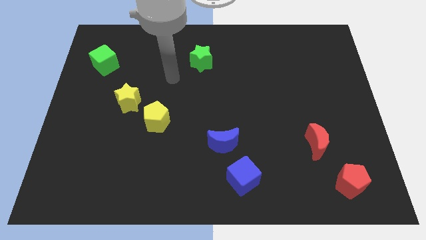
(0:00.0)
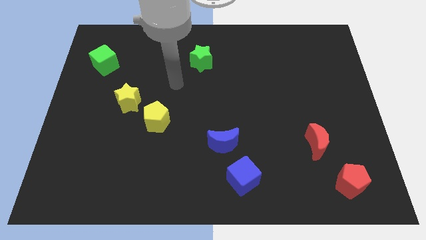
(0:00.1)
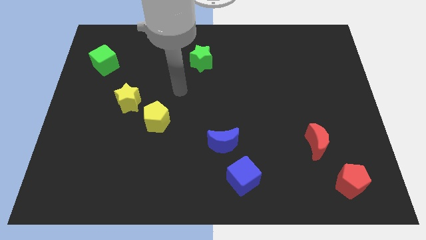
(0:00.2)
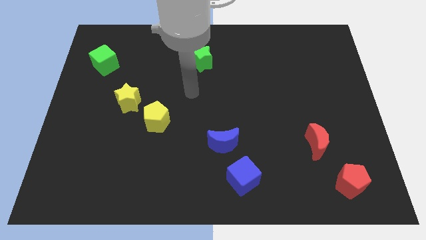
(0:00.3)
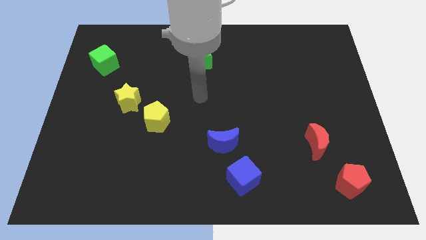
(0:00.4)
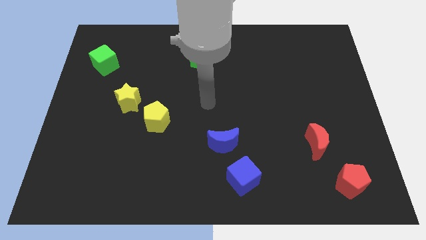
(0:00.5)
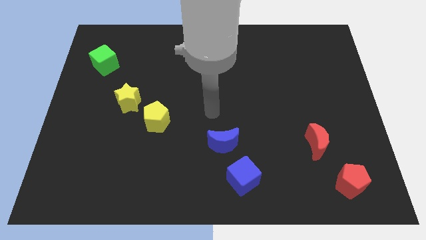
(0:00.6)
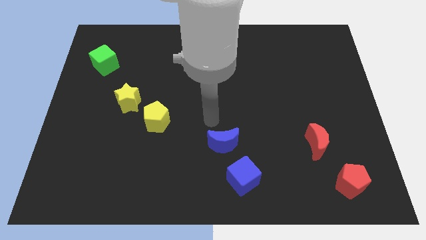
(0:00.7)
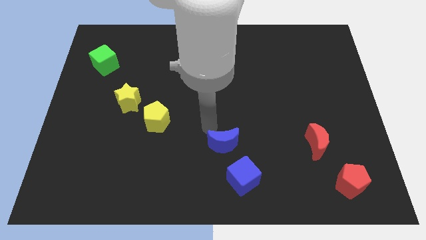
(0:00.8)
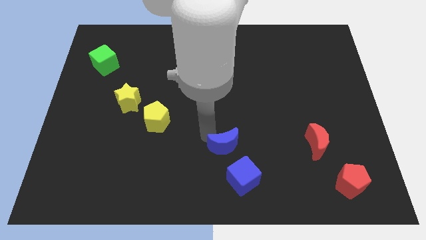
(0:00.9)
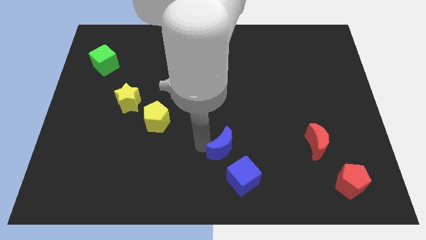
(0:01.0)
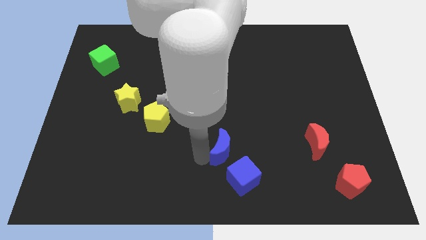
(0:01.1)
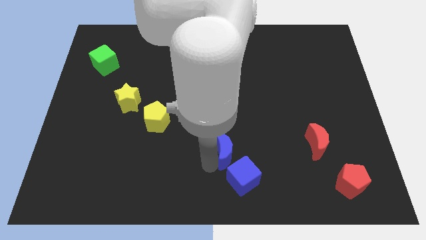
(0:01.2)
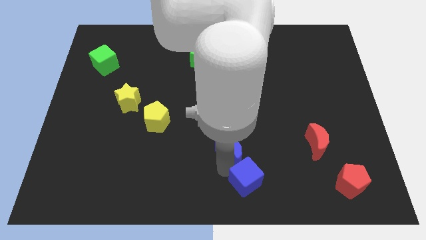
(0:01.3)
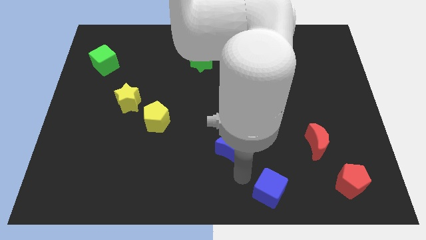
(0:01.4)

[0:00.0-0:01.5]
move the blue moon away from the blue cube

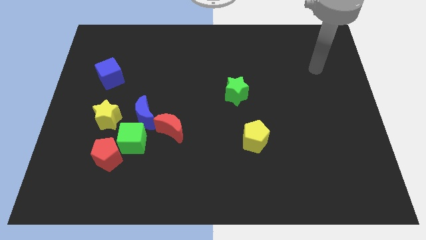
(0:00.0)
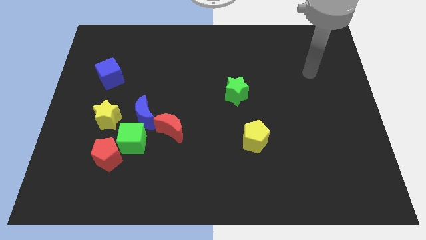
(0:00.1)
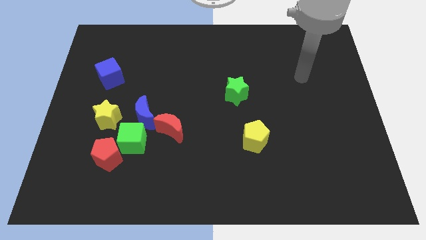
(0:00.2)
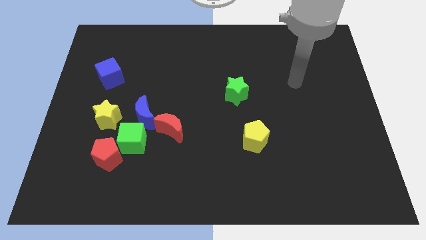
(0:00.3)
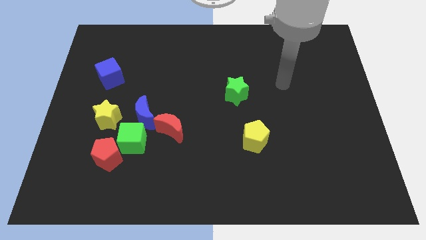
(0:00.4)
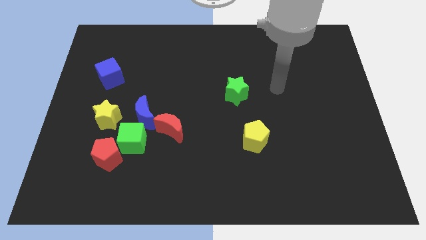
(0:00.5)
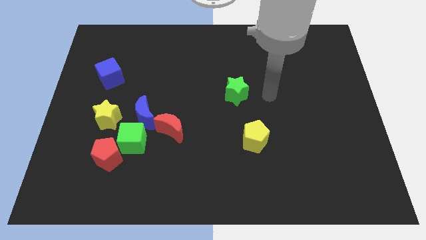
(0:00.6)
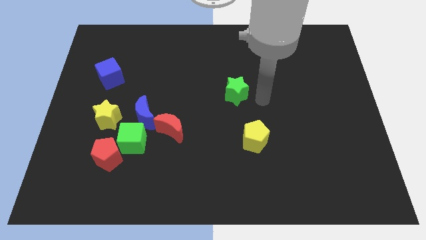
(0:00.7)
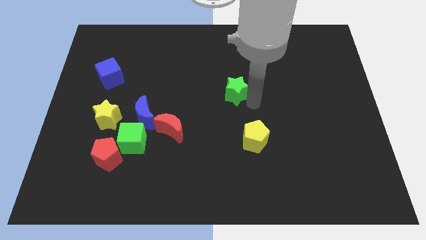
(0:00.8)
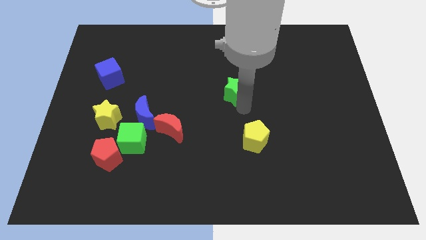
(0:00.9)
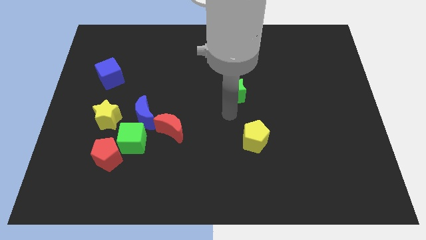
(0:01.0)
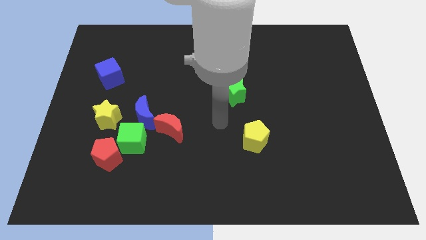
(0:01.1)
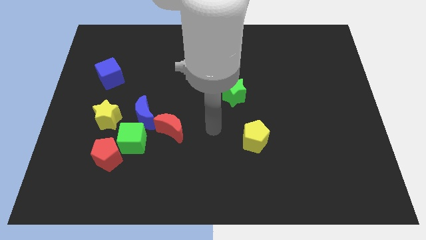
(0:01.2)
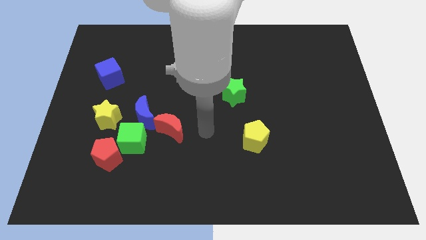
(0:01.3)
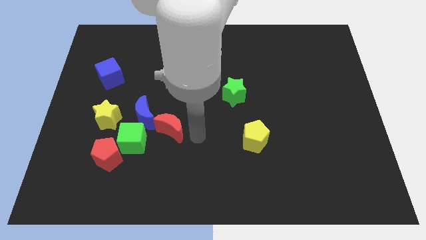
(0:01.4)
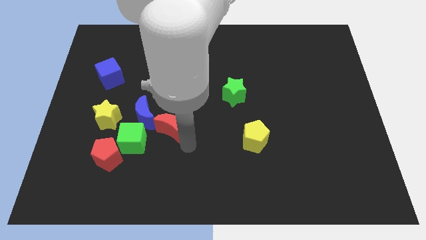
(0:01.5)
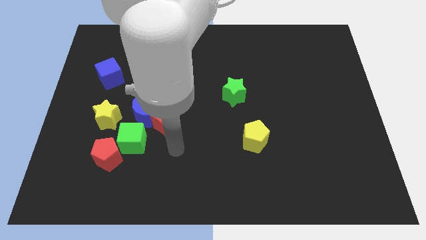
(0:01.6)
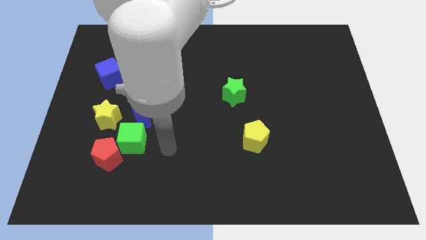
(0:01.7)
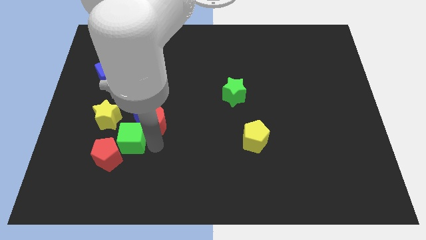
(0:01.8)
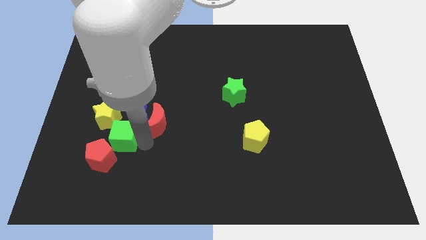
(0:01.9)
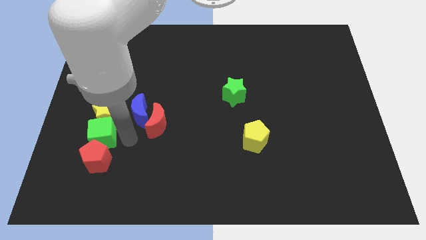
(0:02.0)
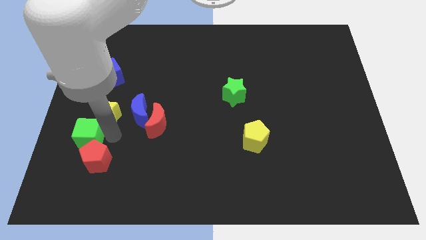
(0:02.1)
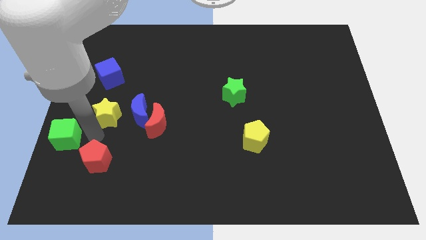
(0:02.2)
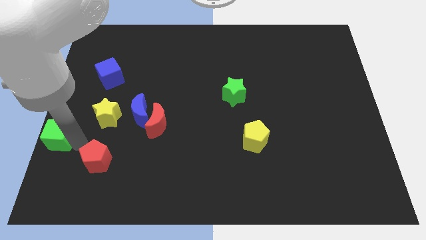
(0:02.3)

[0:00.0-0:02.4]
pull the red pentagon apart from the green cube

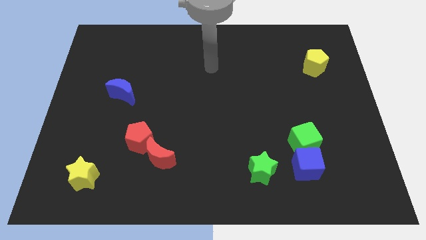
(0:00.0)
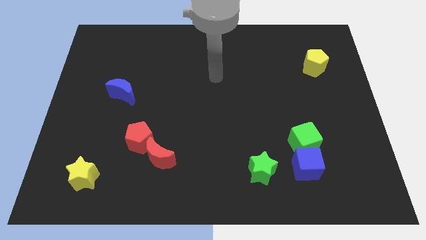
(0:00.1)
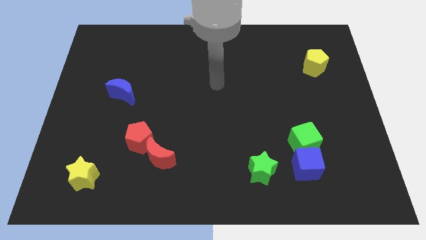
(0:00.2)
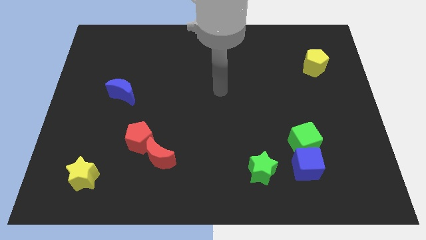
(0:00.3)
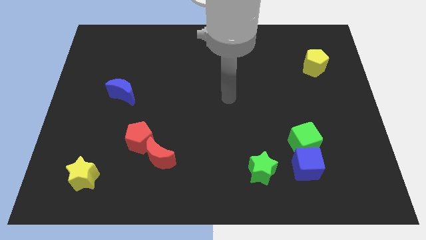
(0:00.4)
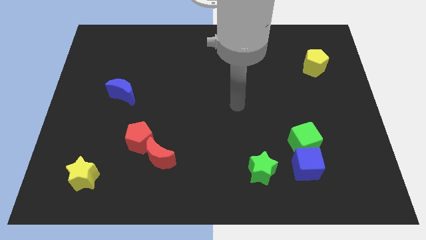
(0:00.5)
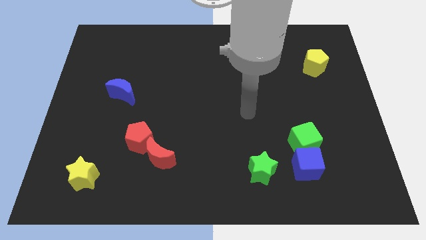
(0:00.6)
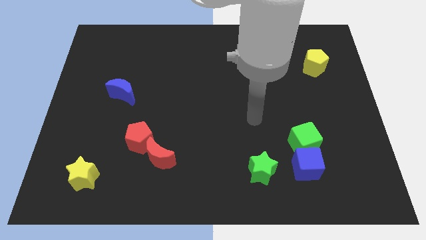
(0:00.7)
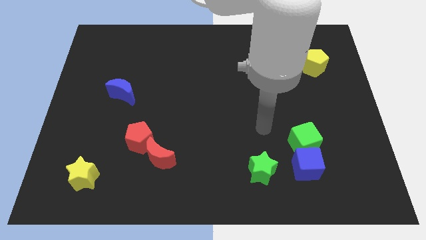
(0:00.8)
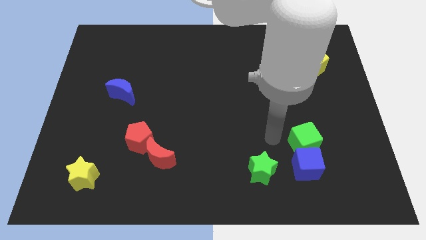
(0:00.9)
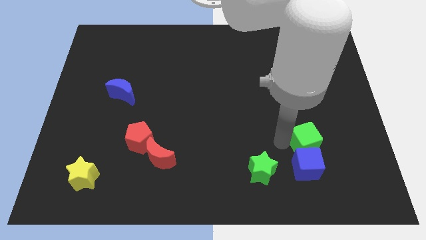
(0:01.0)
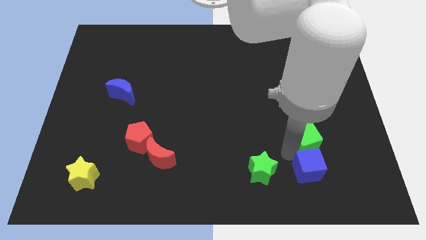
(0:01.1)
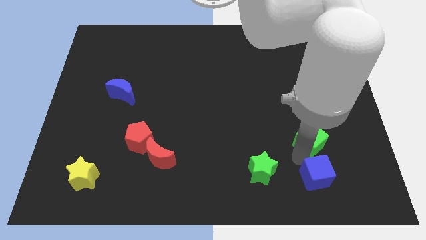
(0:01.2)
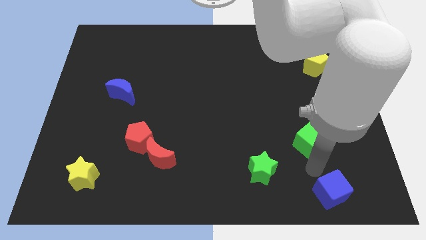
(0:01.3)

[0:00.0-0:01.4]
pull the green cube apart from the blue cube

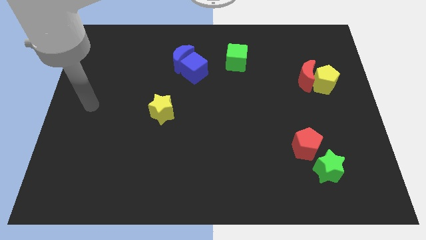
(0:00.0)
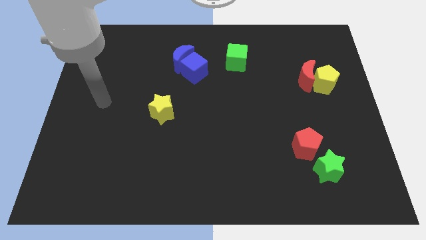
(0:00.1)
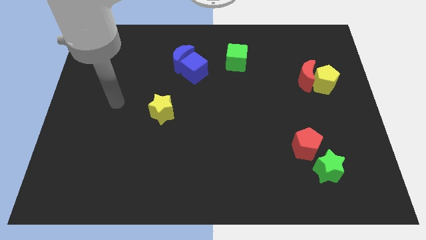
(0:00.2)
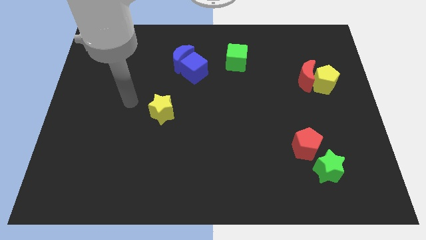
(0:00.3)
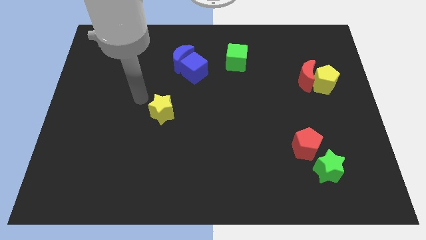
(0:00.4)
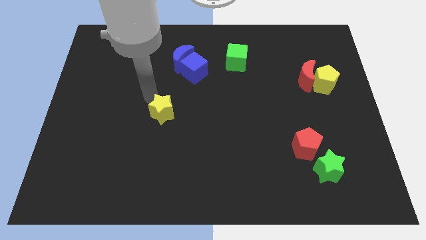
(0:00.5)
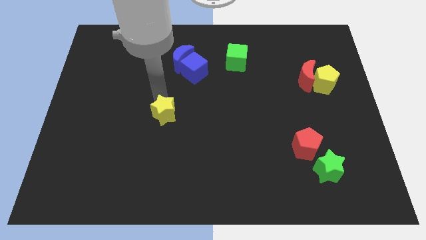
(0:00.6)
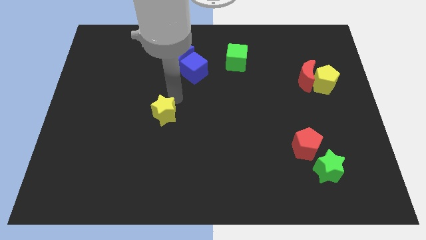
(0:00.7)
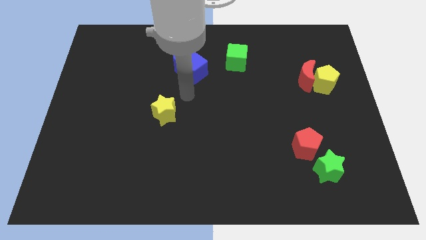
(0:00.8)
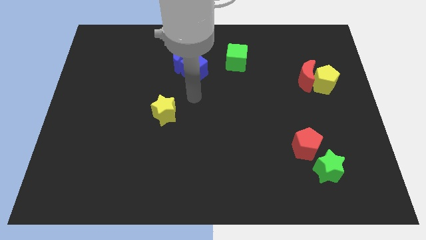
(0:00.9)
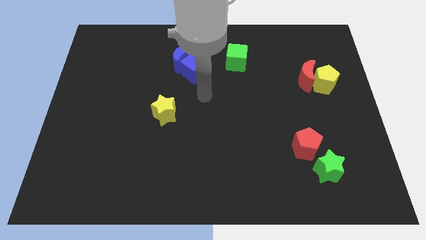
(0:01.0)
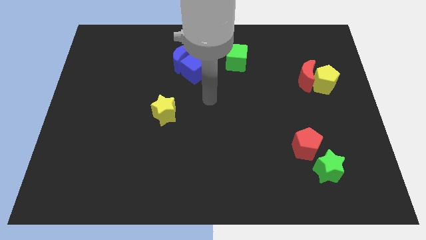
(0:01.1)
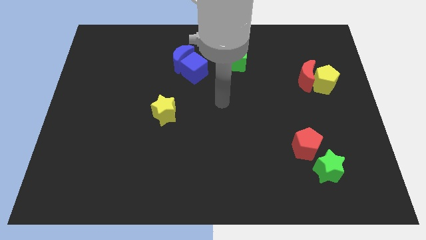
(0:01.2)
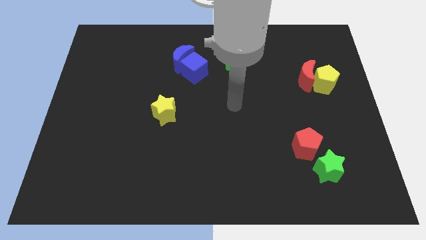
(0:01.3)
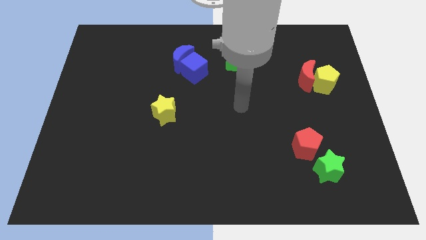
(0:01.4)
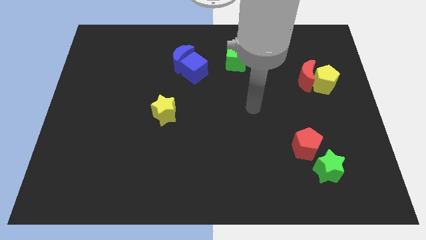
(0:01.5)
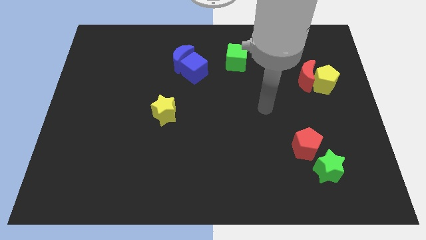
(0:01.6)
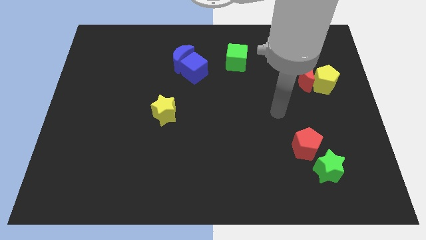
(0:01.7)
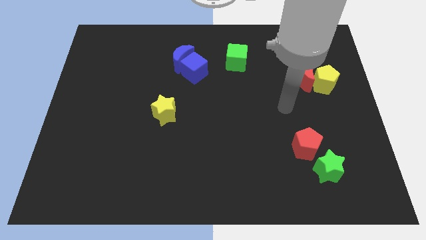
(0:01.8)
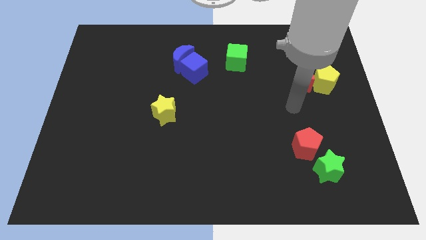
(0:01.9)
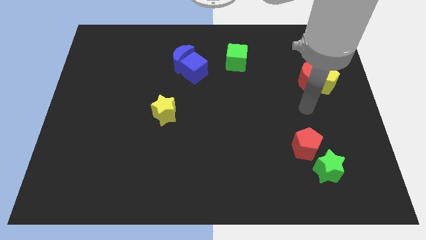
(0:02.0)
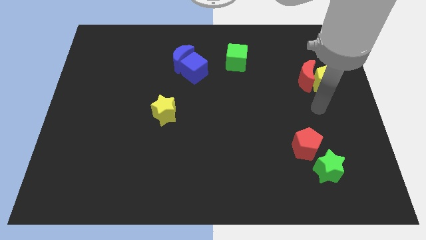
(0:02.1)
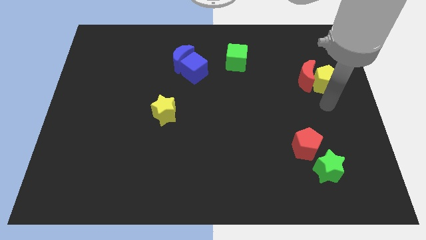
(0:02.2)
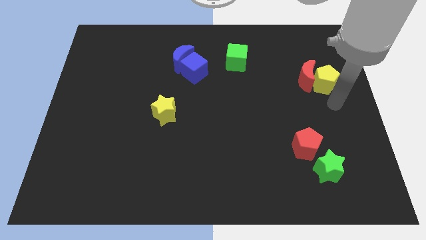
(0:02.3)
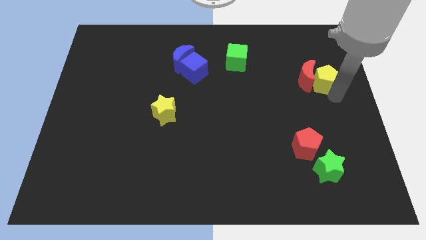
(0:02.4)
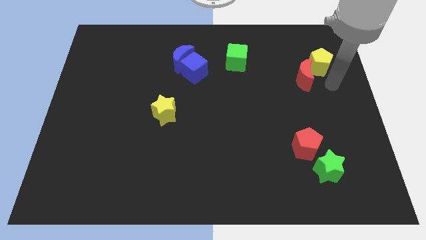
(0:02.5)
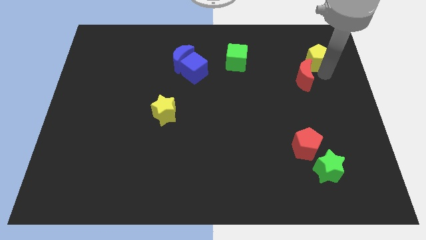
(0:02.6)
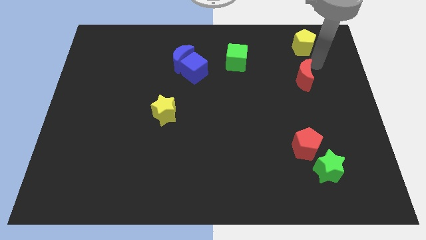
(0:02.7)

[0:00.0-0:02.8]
separate the red moon from the yellow pentagon

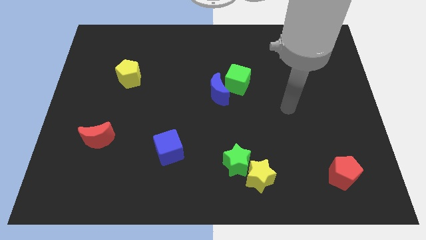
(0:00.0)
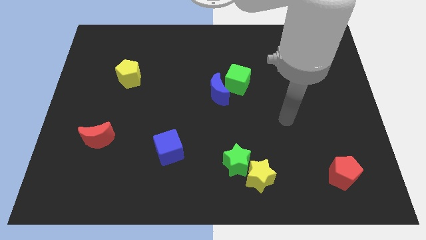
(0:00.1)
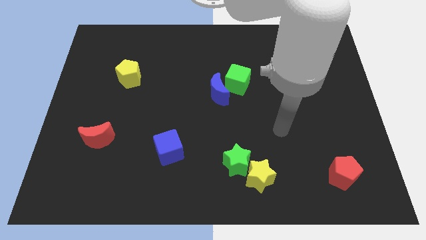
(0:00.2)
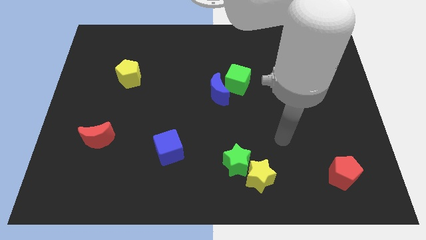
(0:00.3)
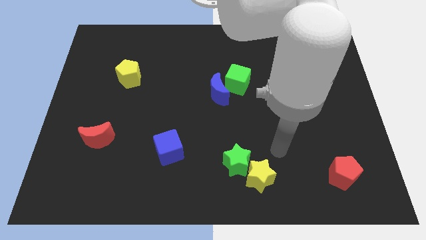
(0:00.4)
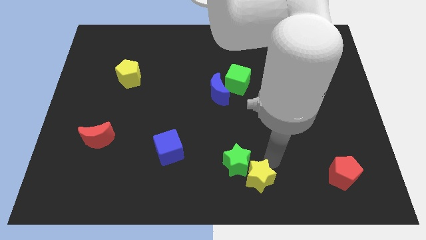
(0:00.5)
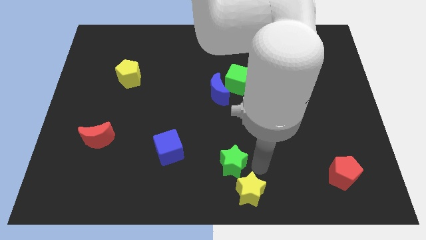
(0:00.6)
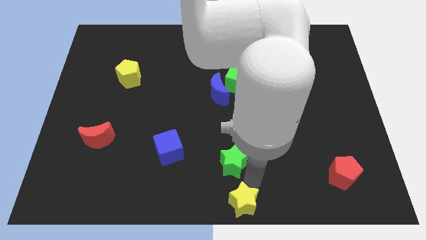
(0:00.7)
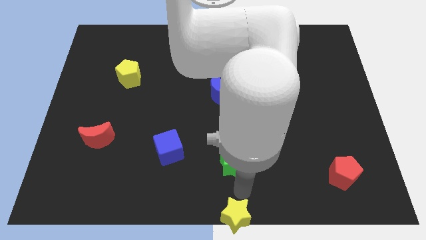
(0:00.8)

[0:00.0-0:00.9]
pull the green star apart from the yellow star

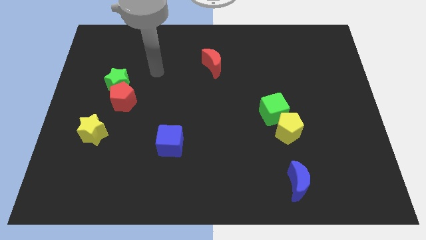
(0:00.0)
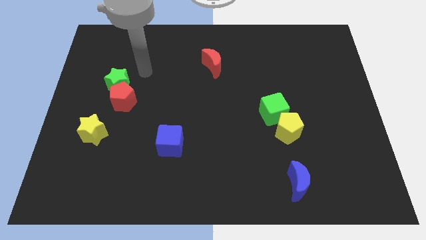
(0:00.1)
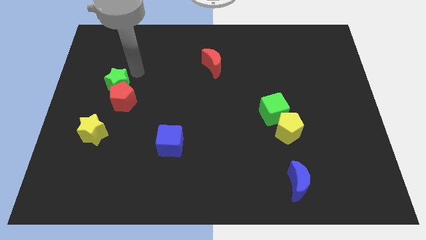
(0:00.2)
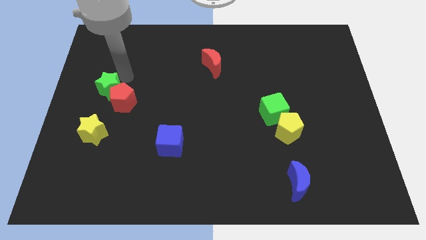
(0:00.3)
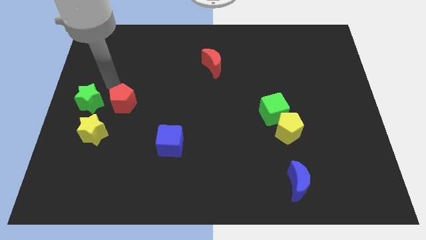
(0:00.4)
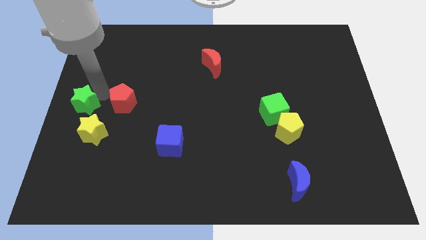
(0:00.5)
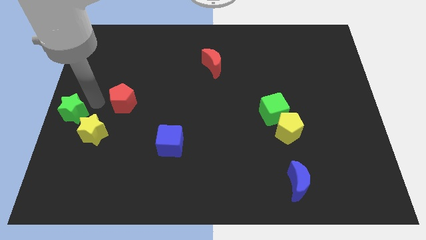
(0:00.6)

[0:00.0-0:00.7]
separate the red pentagon from the green star
